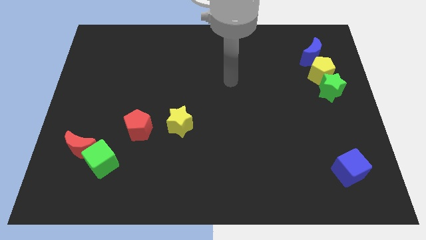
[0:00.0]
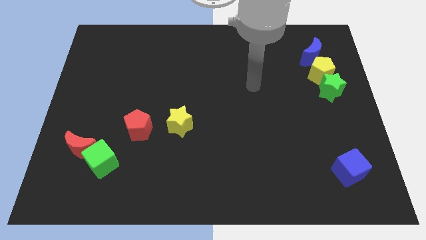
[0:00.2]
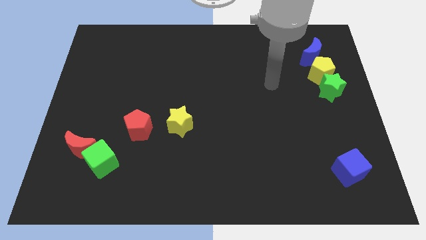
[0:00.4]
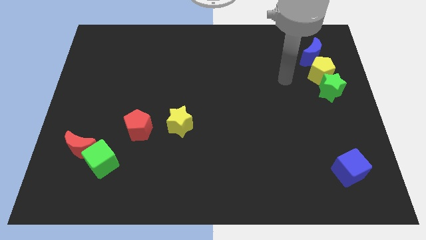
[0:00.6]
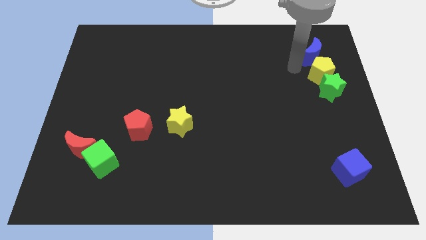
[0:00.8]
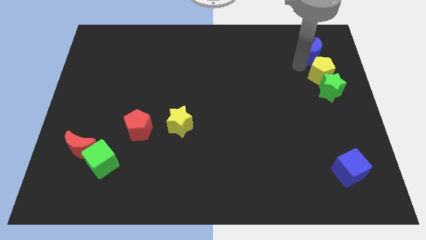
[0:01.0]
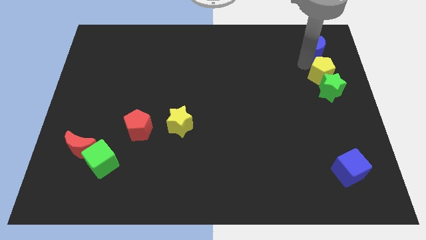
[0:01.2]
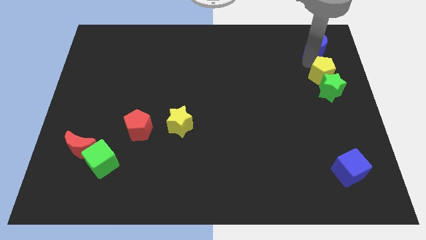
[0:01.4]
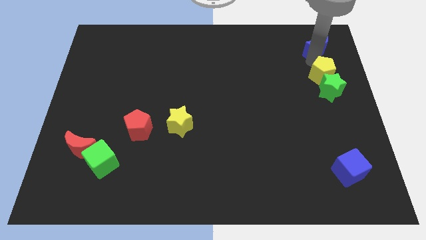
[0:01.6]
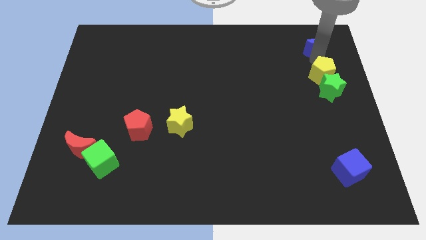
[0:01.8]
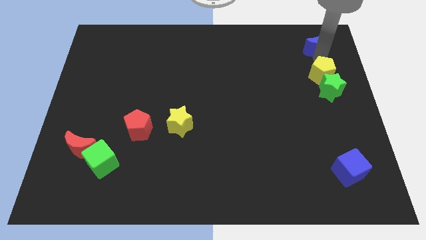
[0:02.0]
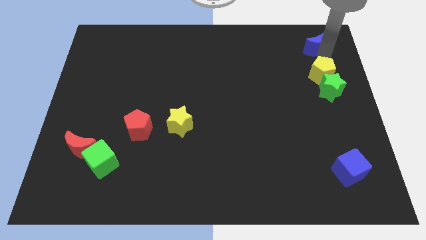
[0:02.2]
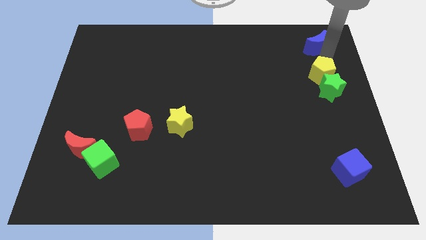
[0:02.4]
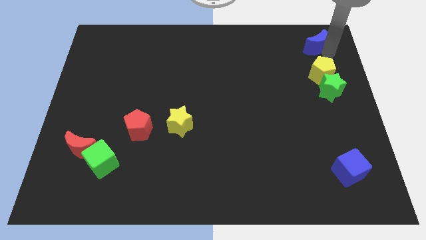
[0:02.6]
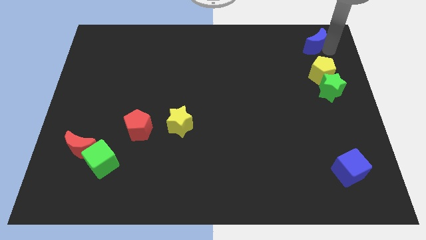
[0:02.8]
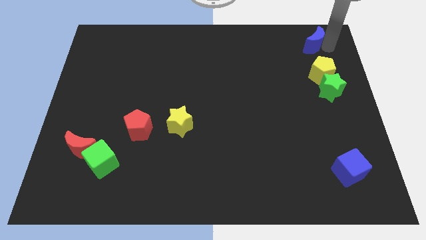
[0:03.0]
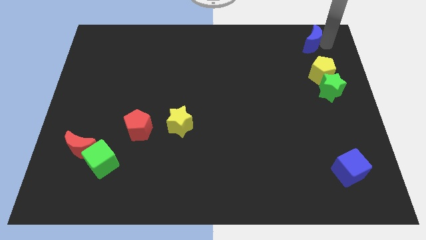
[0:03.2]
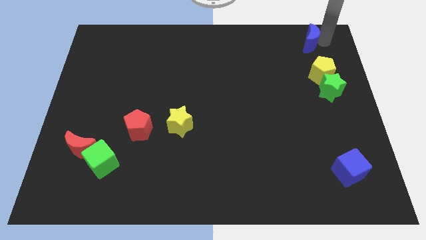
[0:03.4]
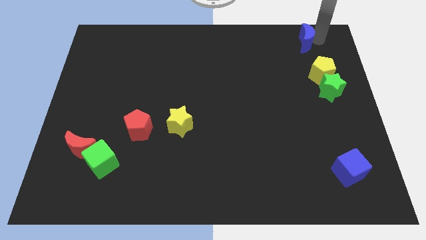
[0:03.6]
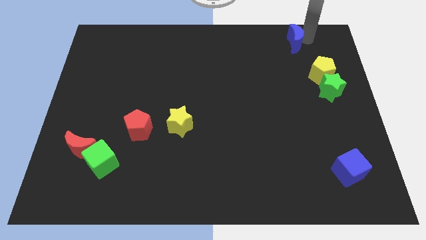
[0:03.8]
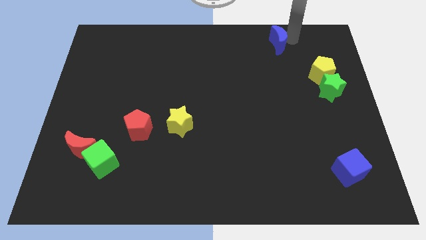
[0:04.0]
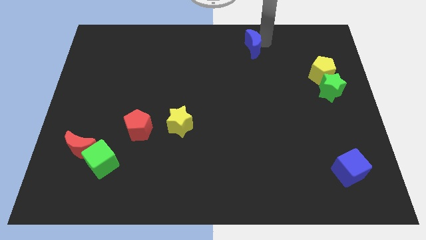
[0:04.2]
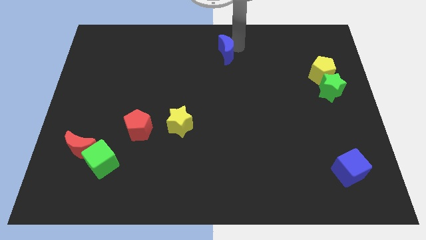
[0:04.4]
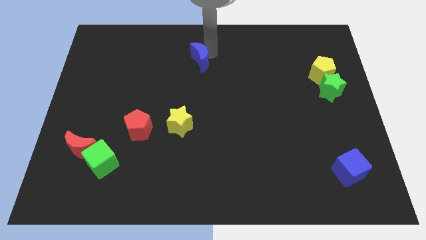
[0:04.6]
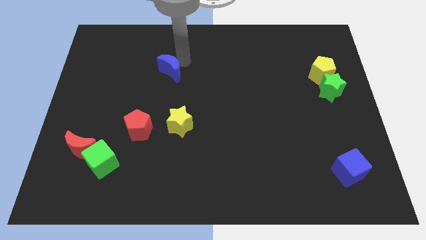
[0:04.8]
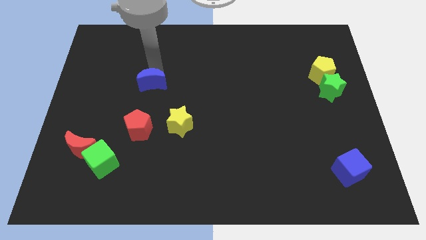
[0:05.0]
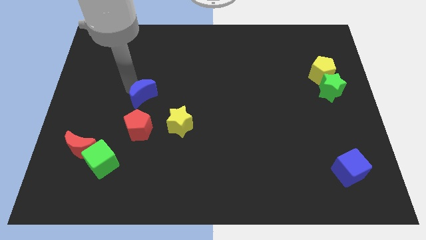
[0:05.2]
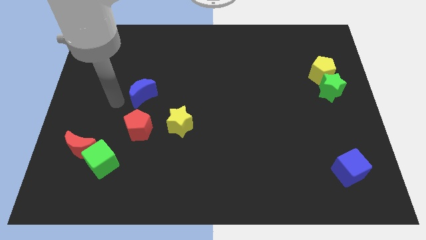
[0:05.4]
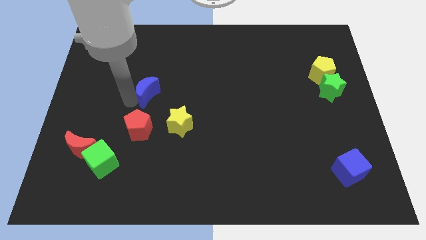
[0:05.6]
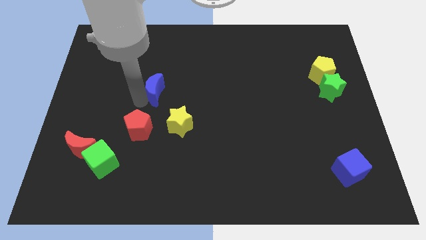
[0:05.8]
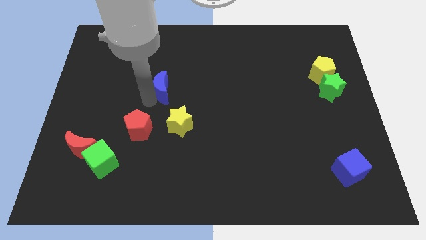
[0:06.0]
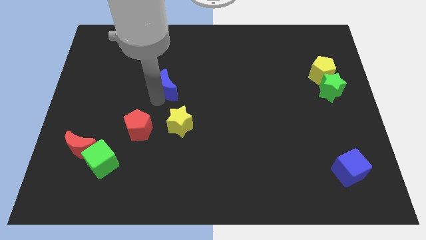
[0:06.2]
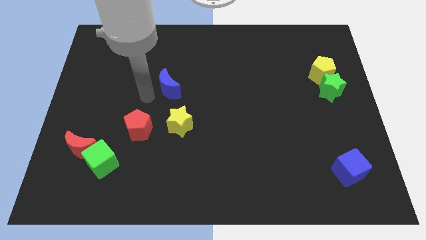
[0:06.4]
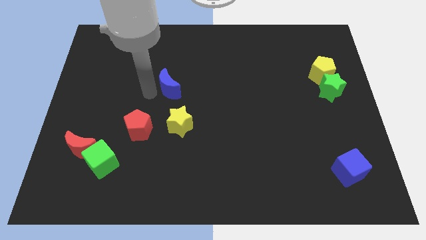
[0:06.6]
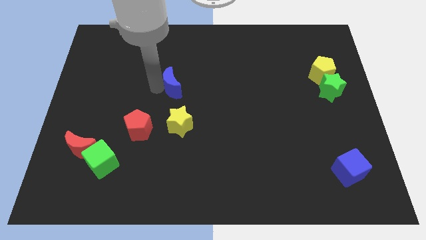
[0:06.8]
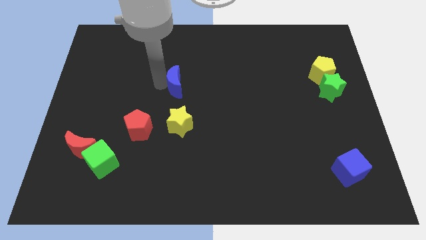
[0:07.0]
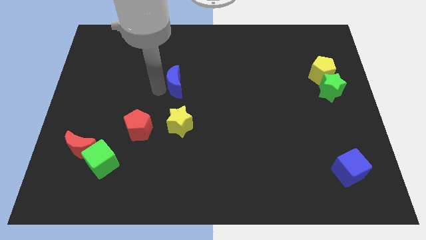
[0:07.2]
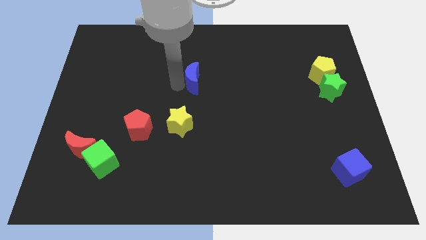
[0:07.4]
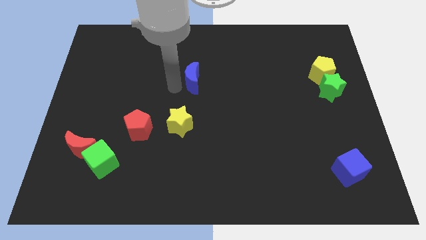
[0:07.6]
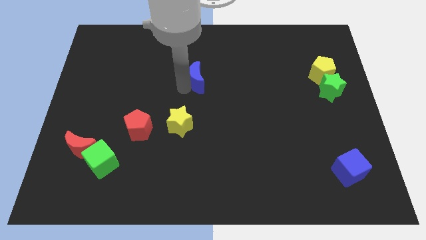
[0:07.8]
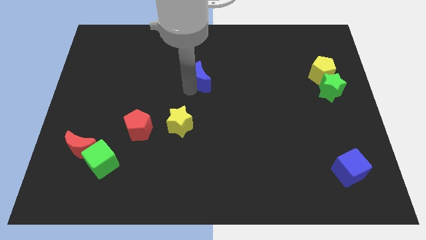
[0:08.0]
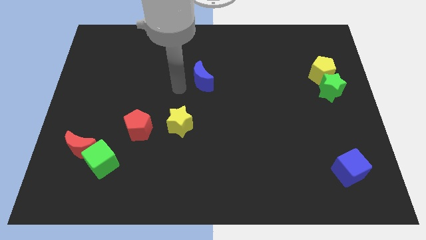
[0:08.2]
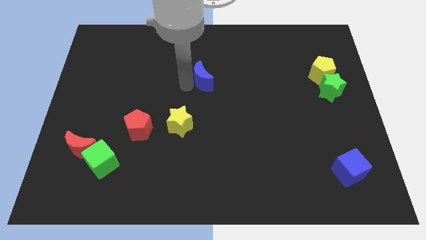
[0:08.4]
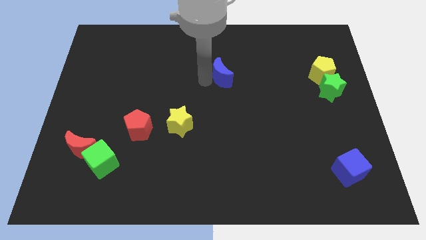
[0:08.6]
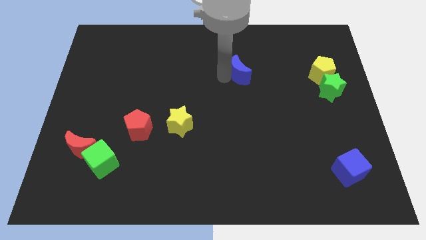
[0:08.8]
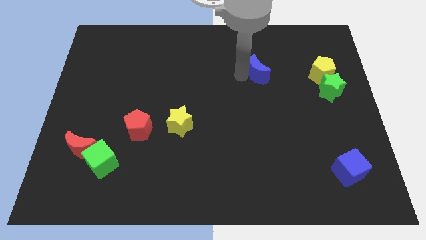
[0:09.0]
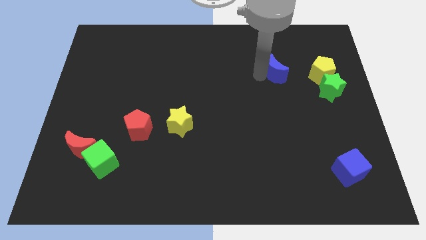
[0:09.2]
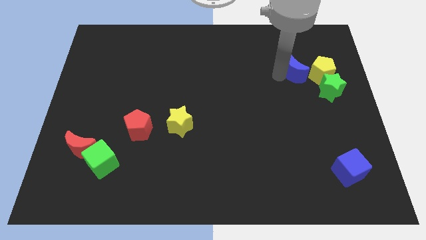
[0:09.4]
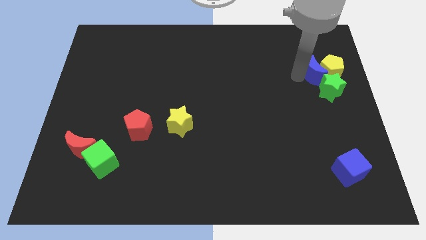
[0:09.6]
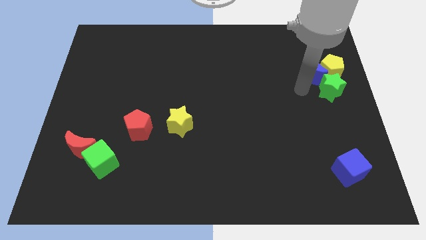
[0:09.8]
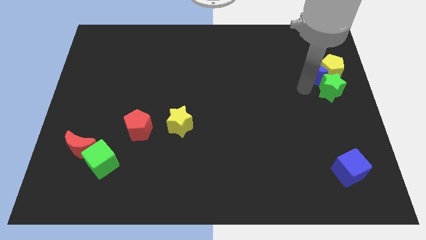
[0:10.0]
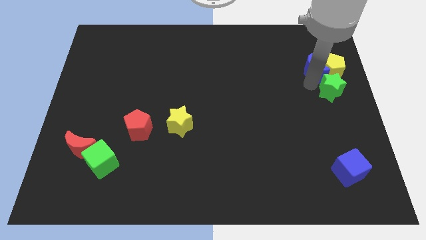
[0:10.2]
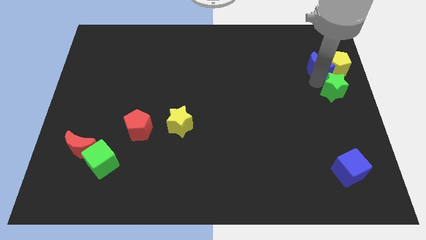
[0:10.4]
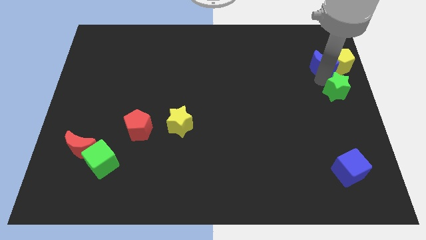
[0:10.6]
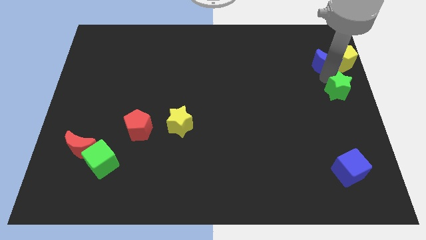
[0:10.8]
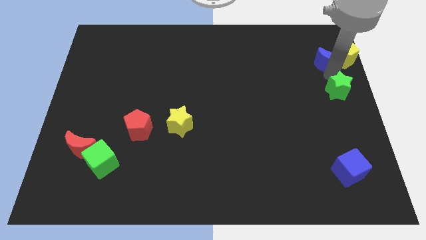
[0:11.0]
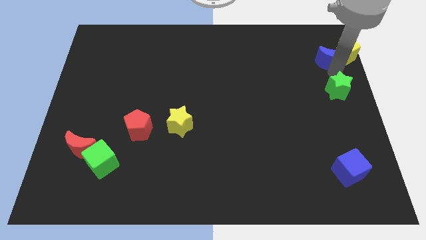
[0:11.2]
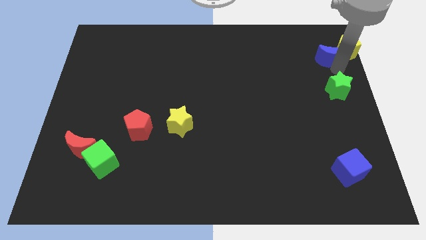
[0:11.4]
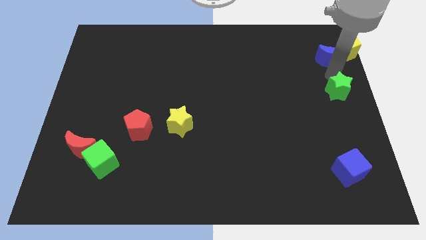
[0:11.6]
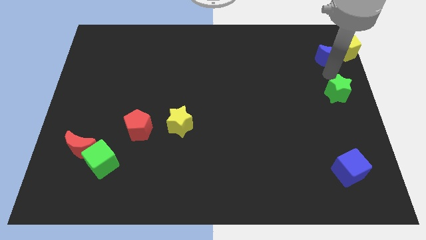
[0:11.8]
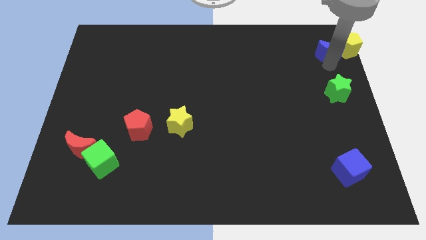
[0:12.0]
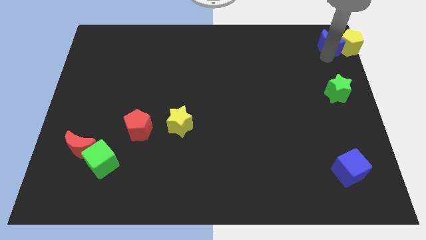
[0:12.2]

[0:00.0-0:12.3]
push the blue moon to the top right corner
